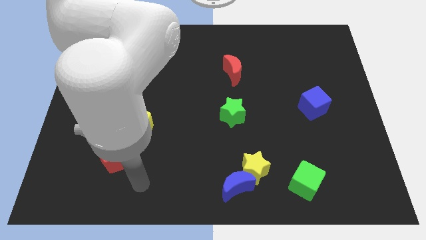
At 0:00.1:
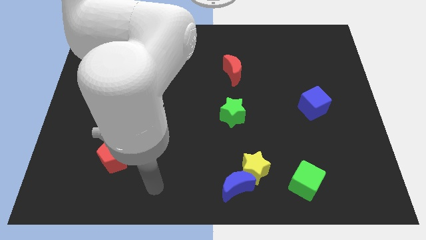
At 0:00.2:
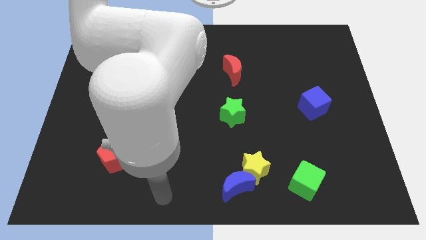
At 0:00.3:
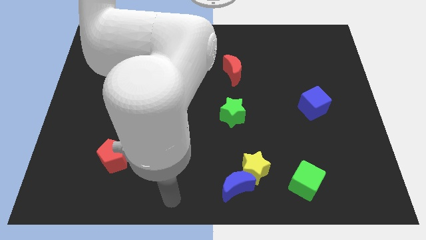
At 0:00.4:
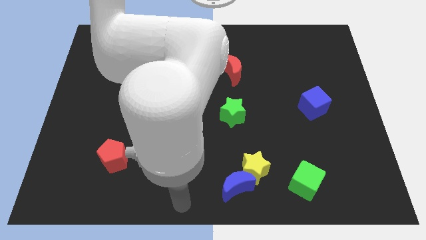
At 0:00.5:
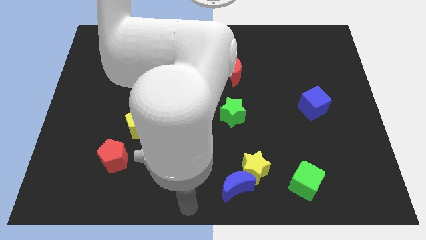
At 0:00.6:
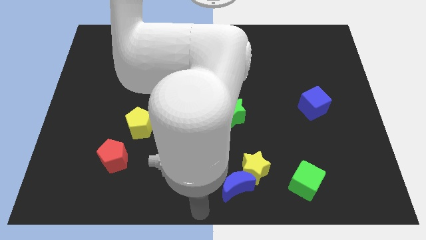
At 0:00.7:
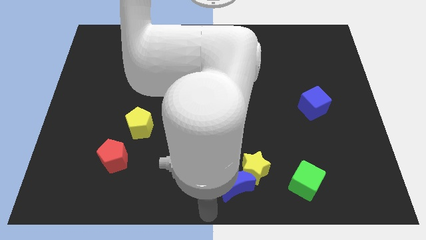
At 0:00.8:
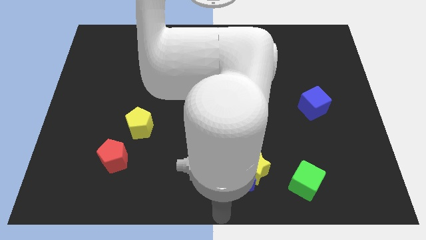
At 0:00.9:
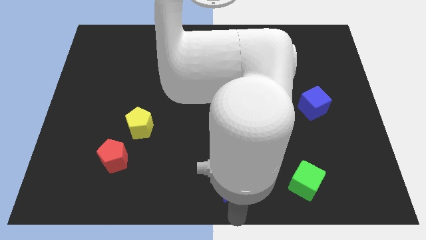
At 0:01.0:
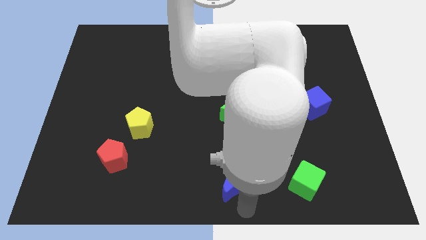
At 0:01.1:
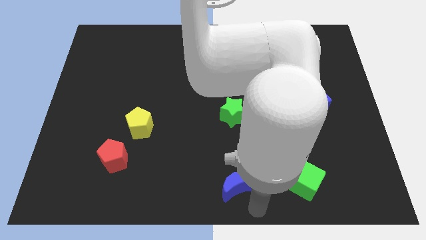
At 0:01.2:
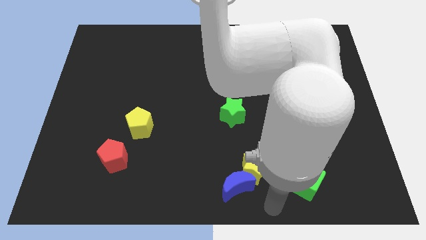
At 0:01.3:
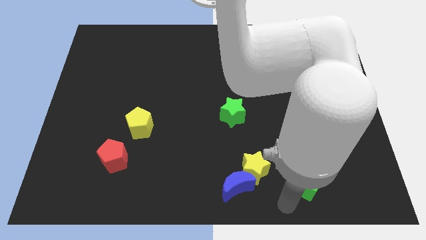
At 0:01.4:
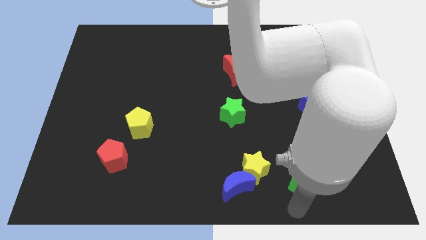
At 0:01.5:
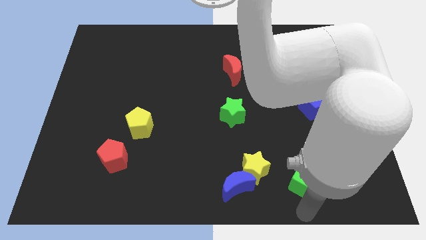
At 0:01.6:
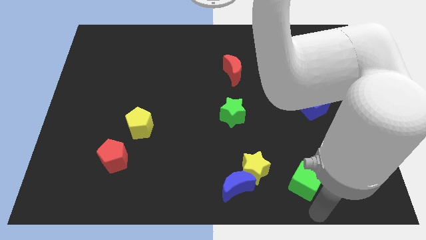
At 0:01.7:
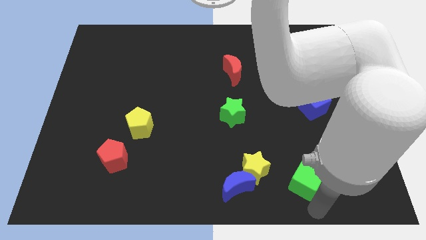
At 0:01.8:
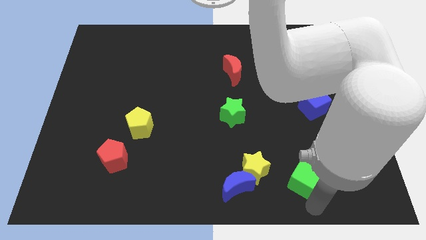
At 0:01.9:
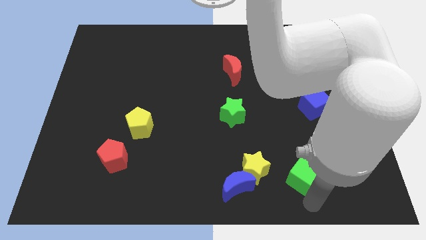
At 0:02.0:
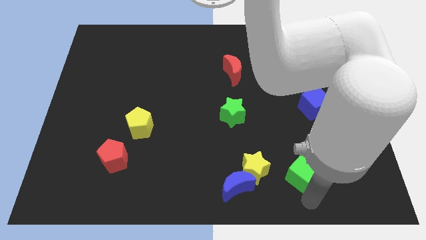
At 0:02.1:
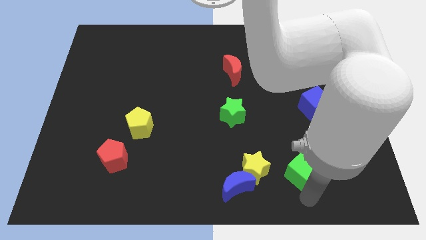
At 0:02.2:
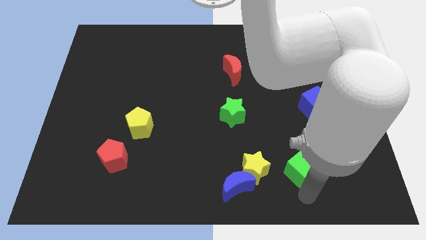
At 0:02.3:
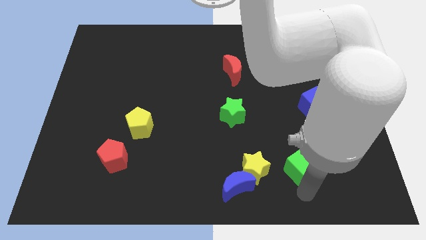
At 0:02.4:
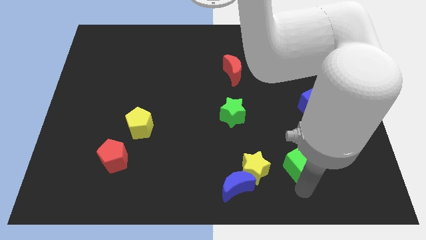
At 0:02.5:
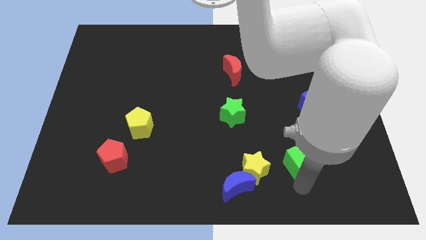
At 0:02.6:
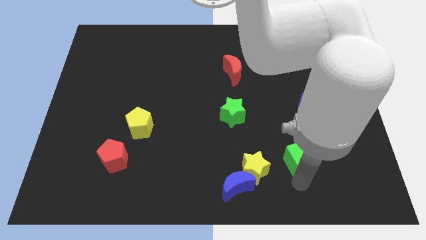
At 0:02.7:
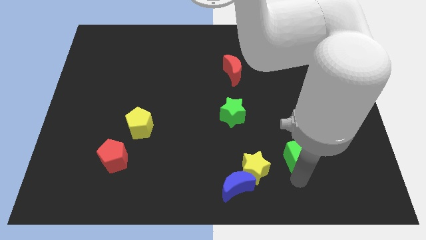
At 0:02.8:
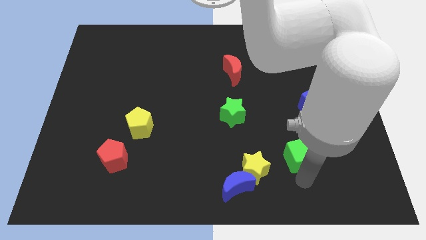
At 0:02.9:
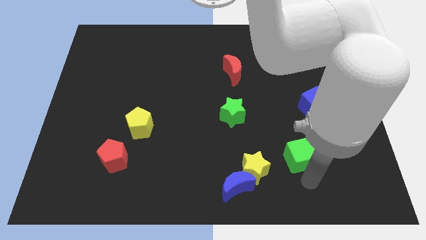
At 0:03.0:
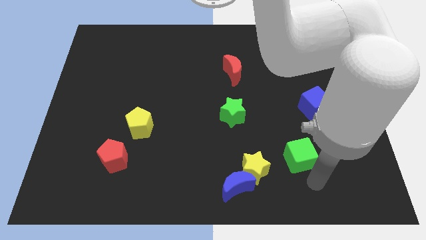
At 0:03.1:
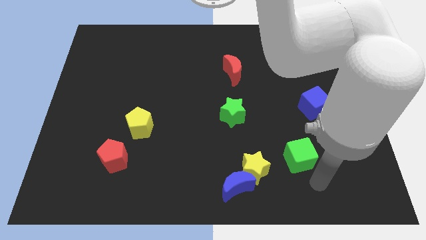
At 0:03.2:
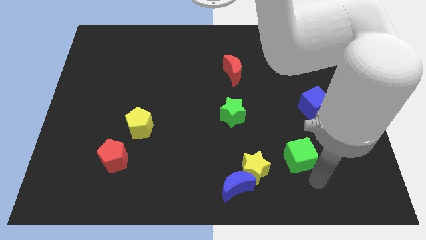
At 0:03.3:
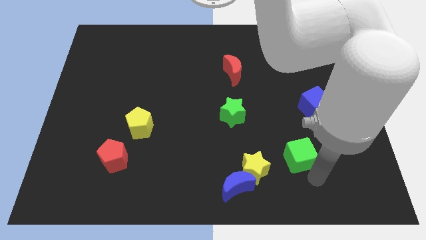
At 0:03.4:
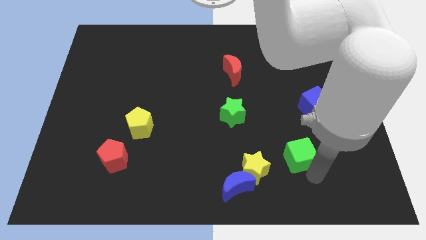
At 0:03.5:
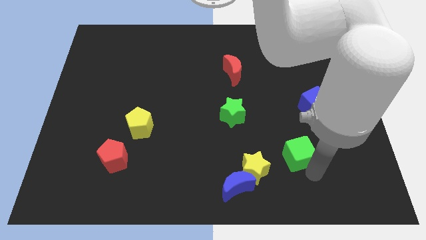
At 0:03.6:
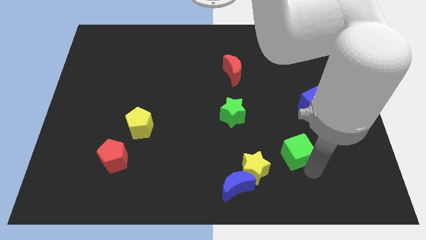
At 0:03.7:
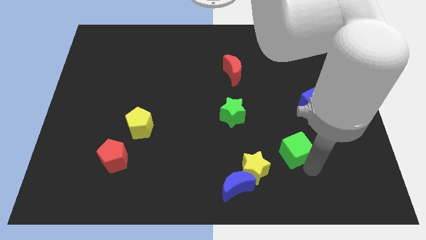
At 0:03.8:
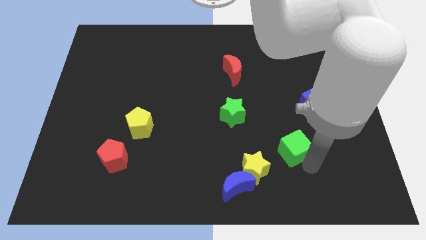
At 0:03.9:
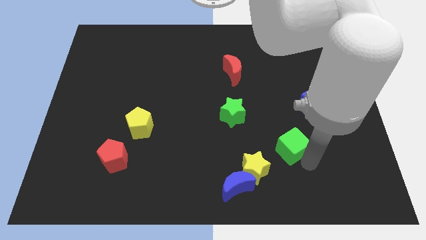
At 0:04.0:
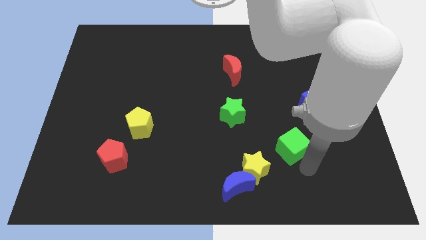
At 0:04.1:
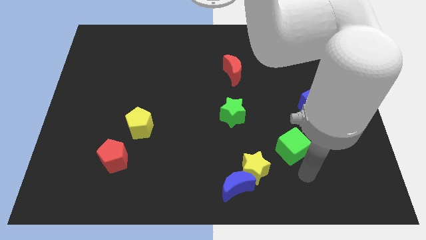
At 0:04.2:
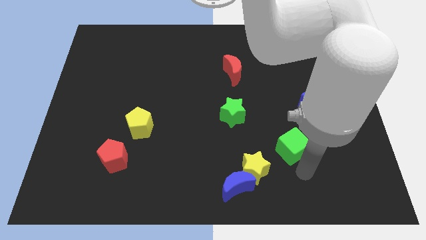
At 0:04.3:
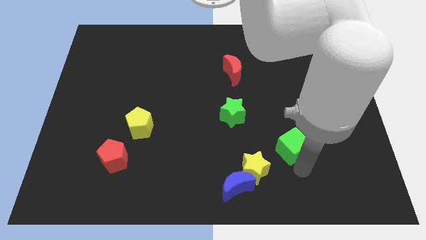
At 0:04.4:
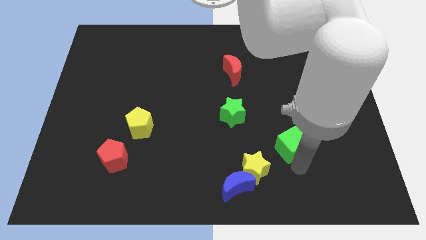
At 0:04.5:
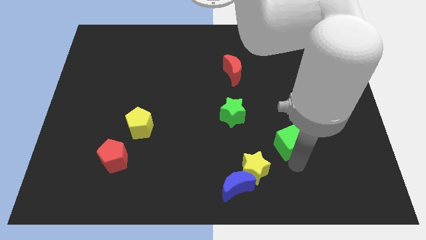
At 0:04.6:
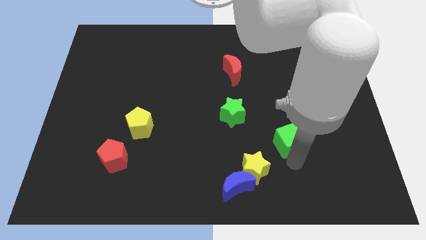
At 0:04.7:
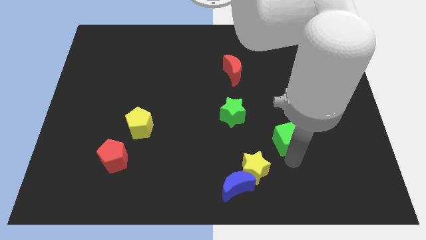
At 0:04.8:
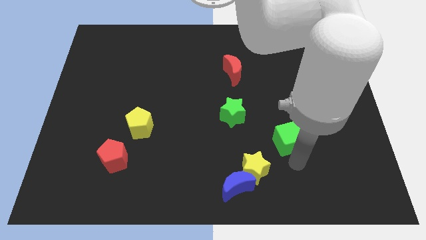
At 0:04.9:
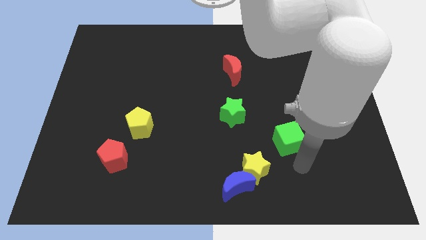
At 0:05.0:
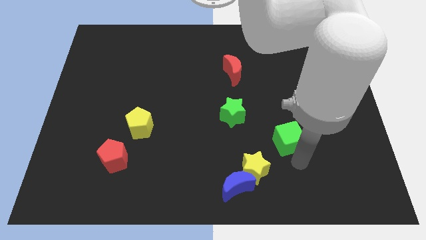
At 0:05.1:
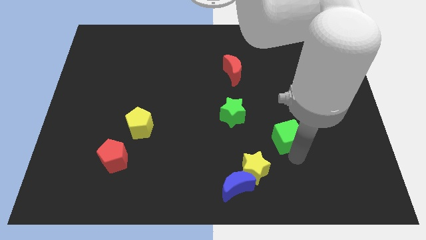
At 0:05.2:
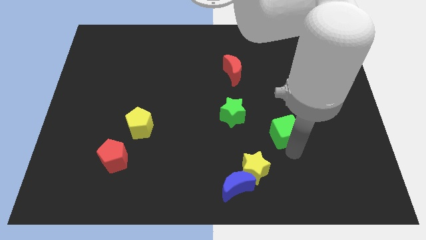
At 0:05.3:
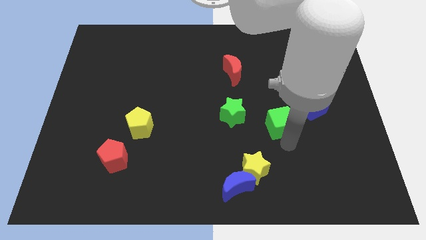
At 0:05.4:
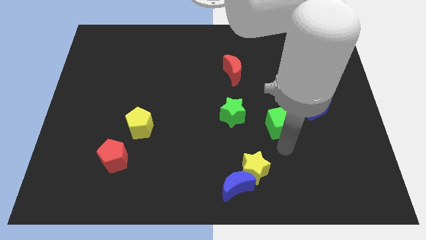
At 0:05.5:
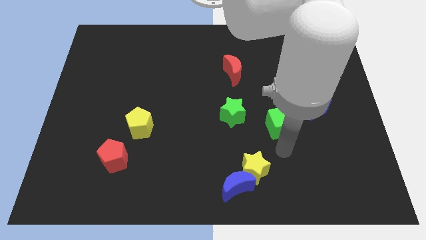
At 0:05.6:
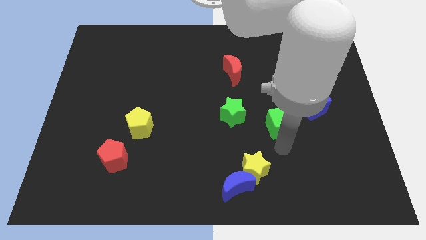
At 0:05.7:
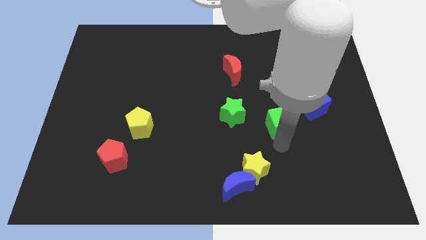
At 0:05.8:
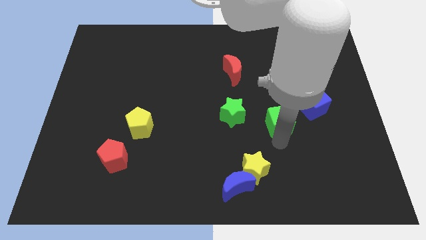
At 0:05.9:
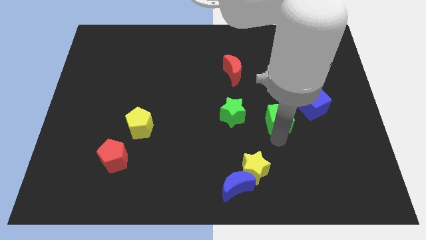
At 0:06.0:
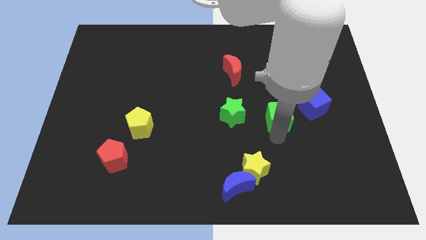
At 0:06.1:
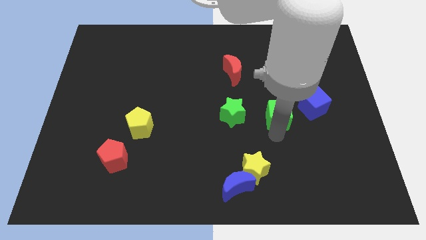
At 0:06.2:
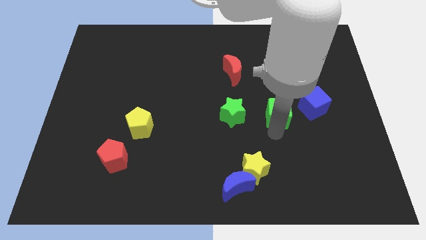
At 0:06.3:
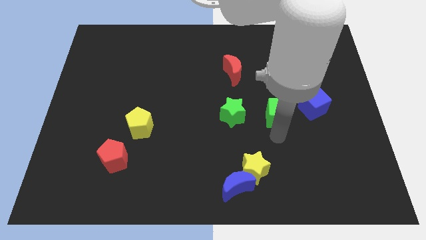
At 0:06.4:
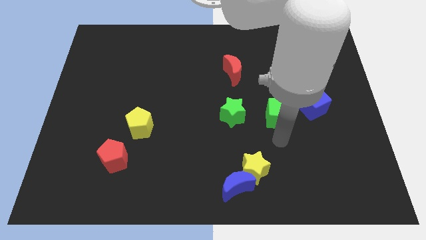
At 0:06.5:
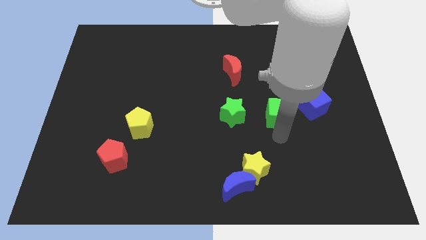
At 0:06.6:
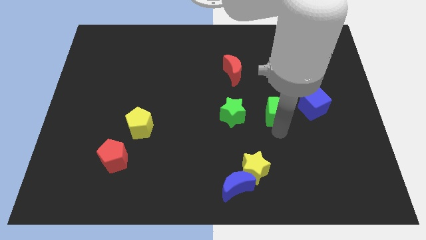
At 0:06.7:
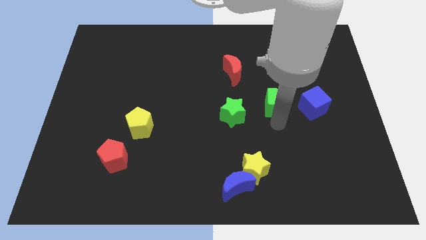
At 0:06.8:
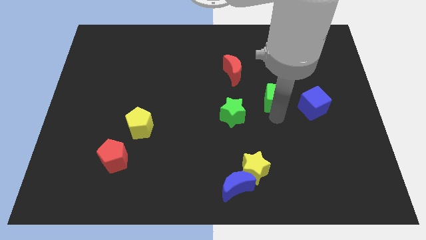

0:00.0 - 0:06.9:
slide the green cube upwards

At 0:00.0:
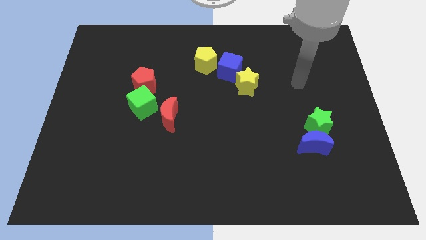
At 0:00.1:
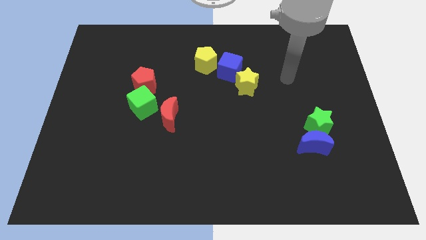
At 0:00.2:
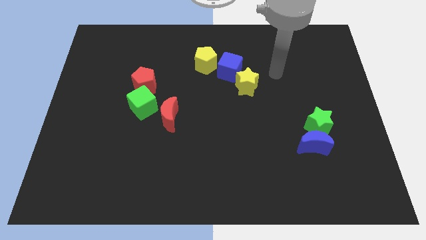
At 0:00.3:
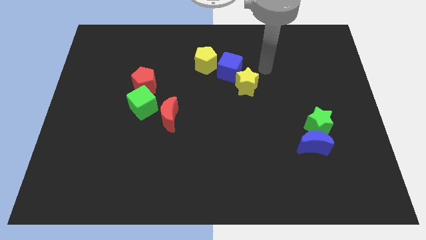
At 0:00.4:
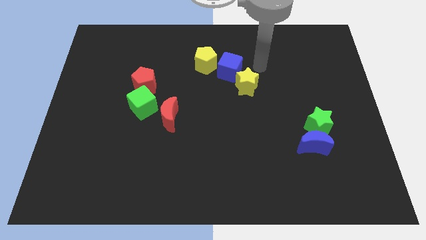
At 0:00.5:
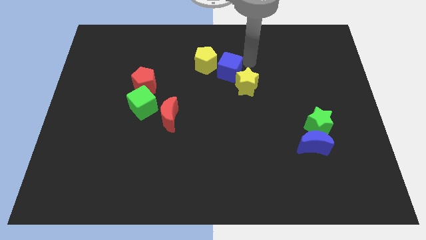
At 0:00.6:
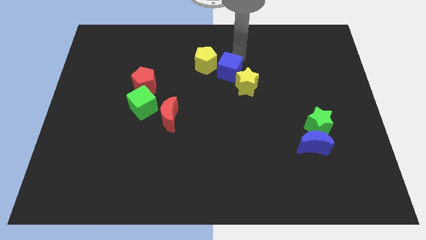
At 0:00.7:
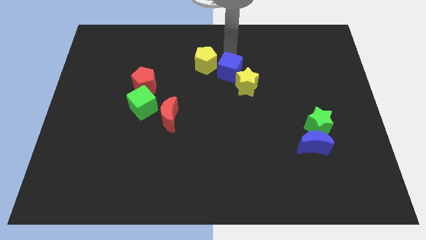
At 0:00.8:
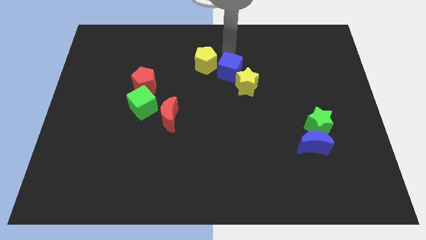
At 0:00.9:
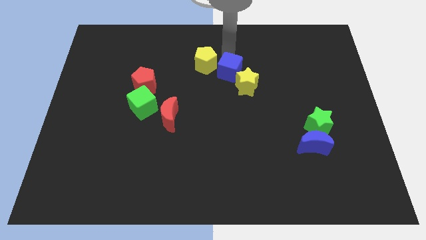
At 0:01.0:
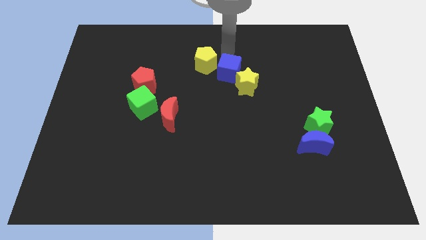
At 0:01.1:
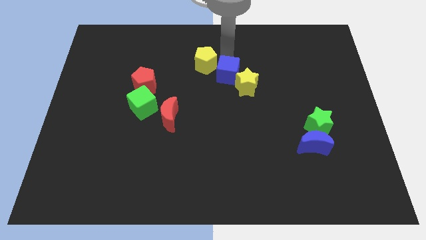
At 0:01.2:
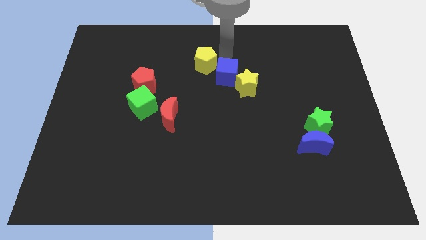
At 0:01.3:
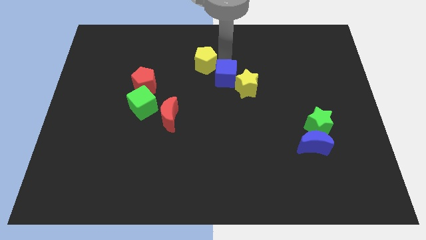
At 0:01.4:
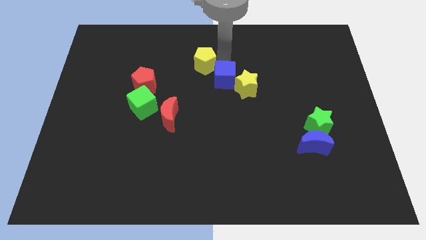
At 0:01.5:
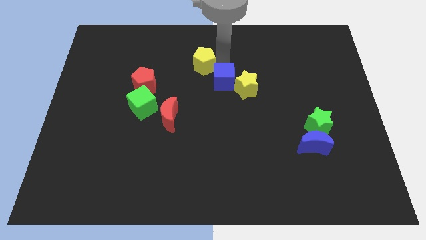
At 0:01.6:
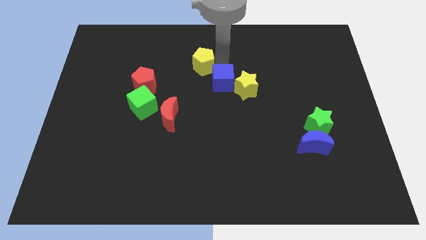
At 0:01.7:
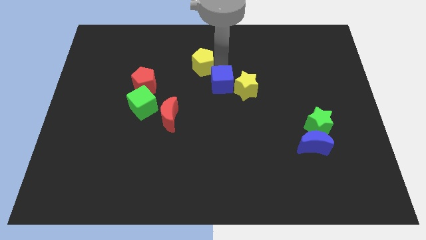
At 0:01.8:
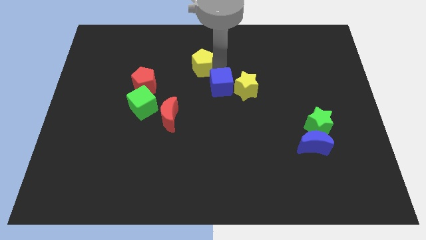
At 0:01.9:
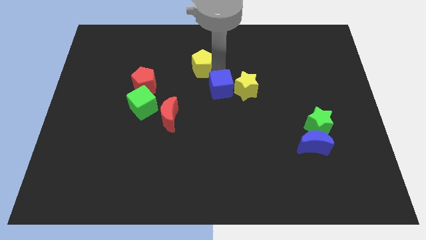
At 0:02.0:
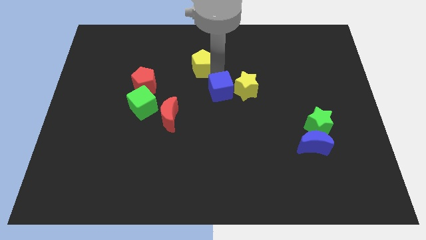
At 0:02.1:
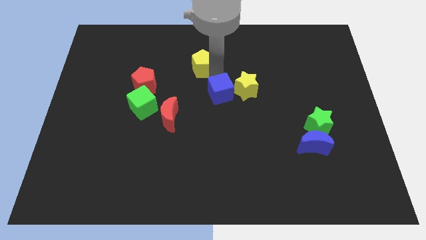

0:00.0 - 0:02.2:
move the blue cube somewhat downwards
